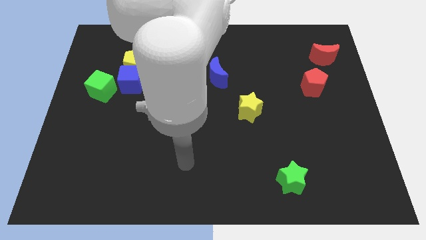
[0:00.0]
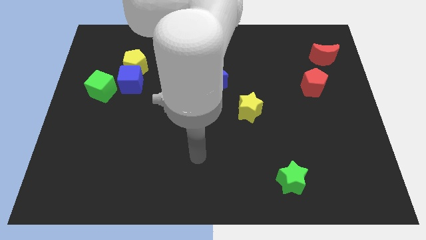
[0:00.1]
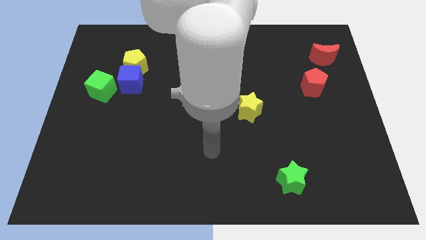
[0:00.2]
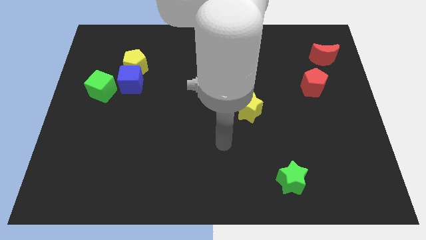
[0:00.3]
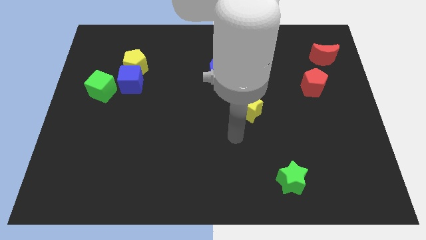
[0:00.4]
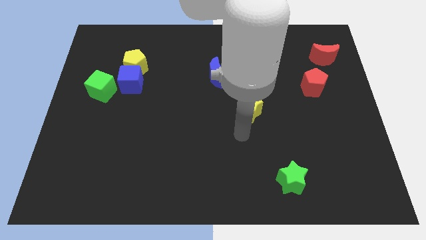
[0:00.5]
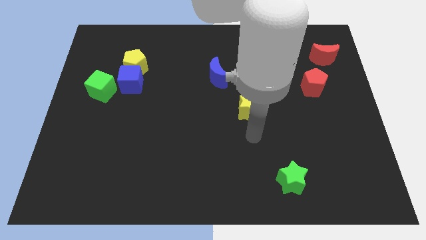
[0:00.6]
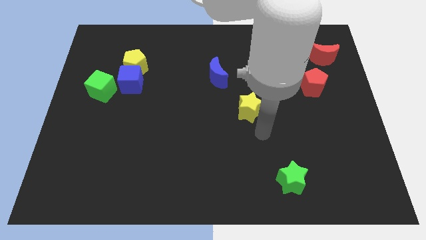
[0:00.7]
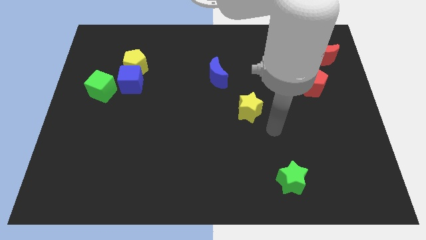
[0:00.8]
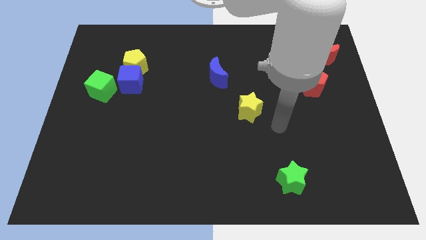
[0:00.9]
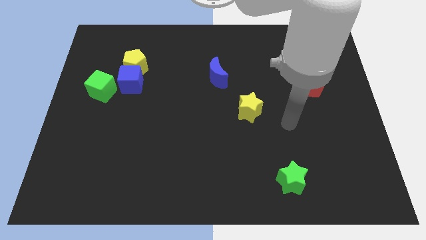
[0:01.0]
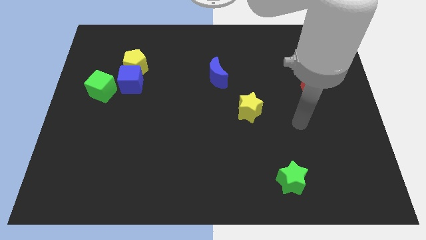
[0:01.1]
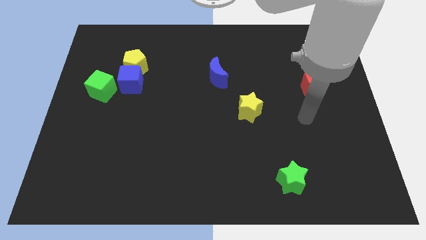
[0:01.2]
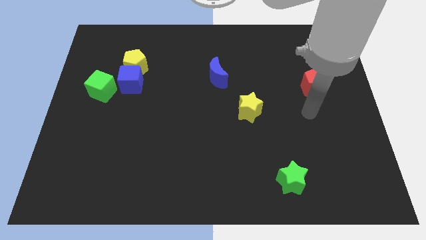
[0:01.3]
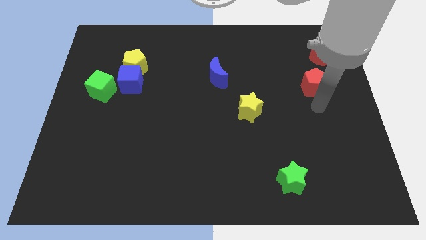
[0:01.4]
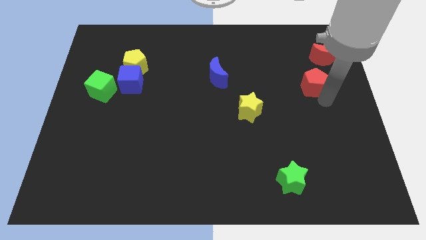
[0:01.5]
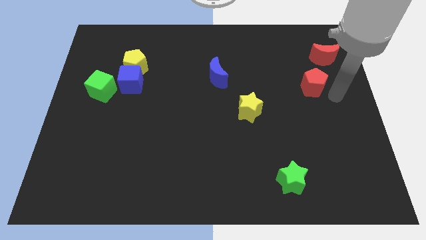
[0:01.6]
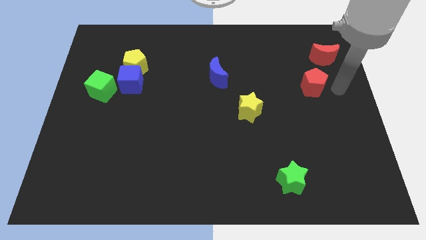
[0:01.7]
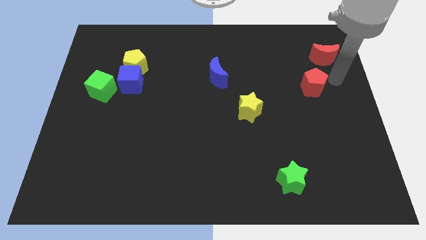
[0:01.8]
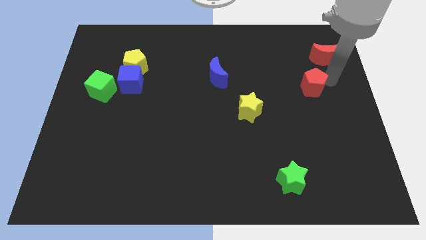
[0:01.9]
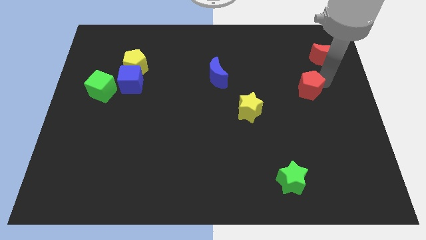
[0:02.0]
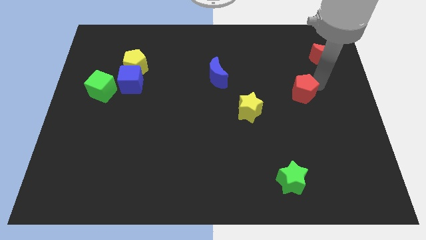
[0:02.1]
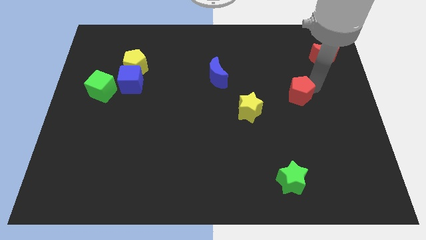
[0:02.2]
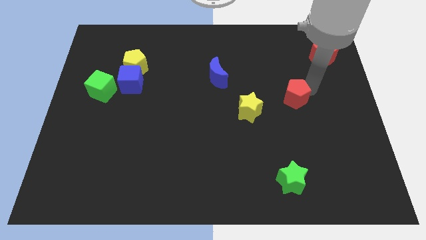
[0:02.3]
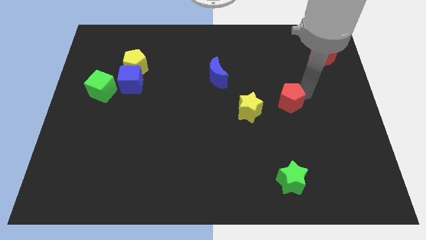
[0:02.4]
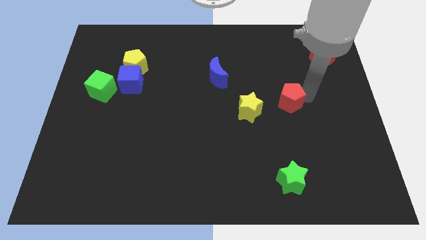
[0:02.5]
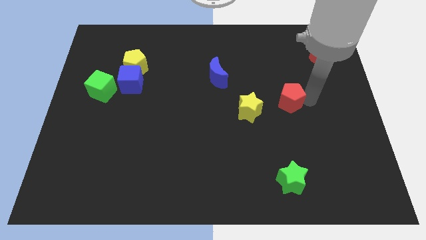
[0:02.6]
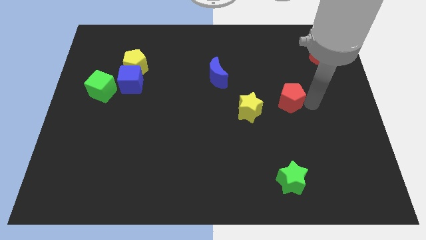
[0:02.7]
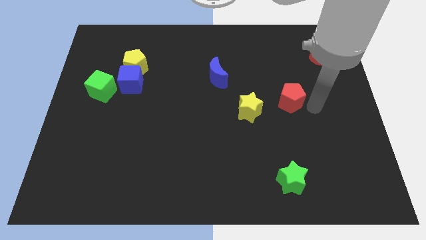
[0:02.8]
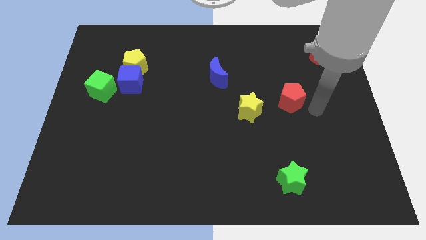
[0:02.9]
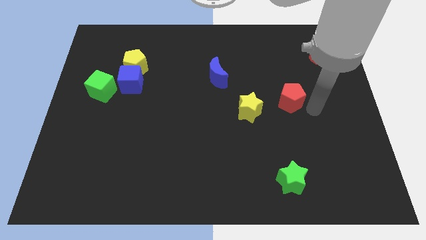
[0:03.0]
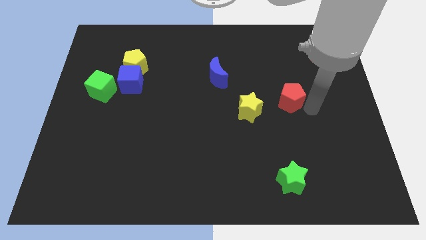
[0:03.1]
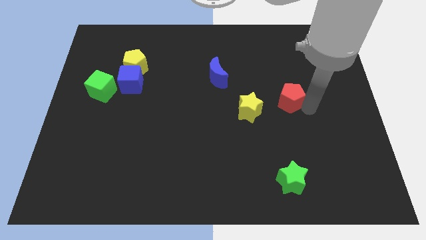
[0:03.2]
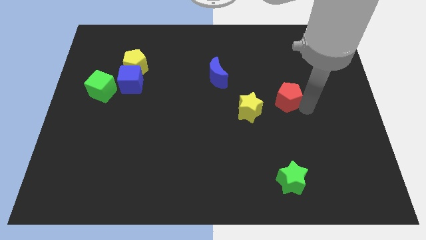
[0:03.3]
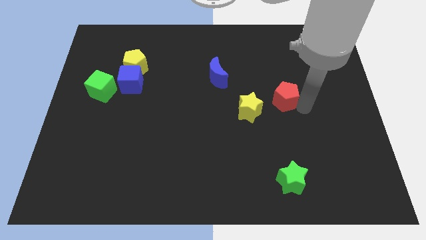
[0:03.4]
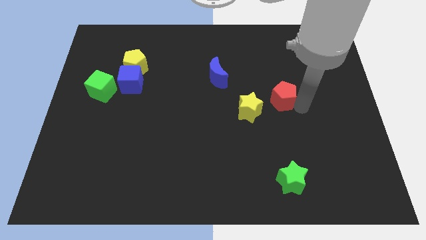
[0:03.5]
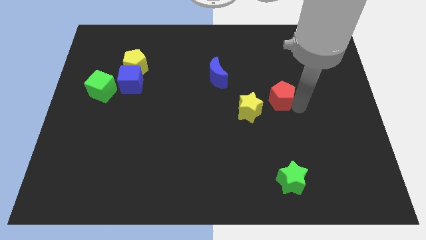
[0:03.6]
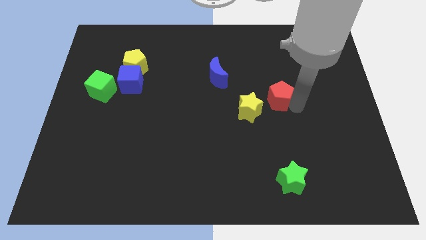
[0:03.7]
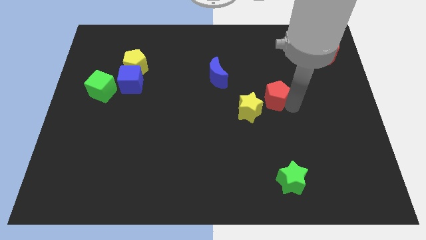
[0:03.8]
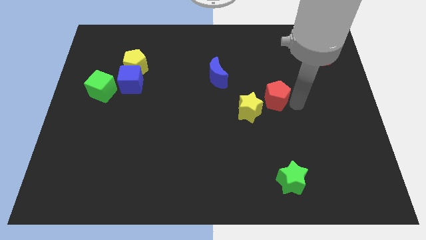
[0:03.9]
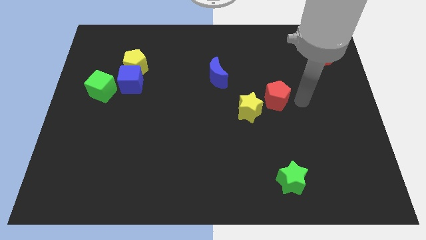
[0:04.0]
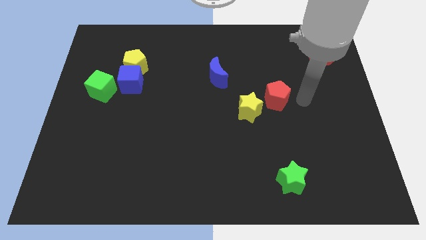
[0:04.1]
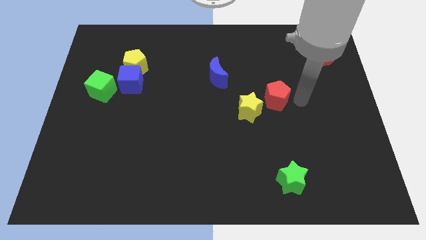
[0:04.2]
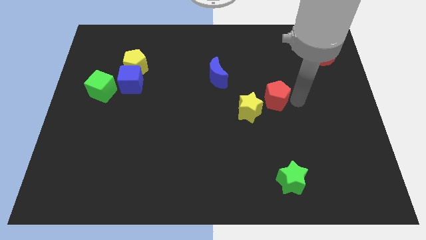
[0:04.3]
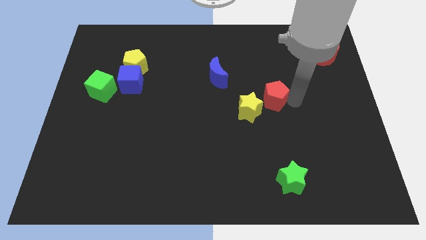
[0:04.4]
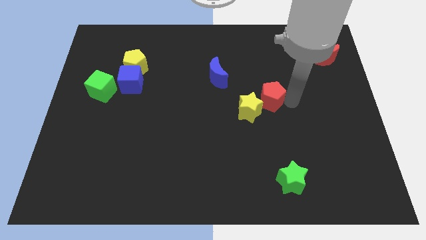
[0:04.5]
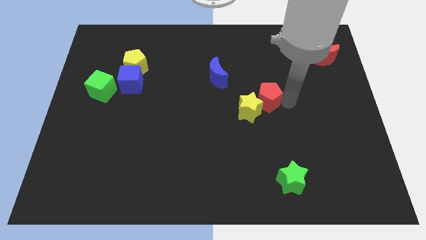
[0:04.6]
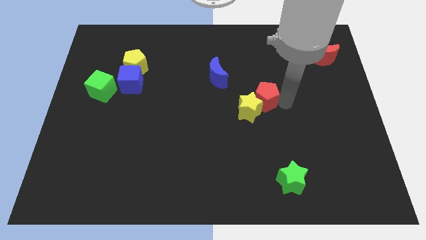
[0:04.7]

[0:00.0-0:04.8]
push the red pentagon to the center of the board

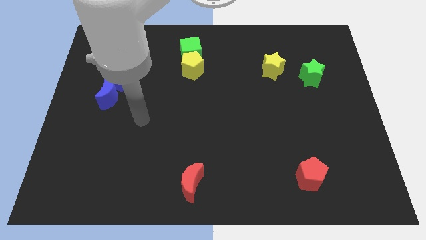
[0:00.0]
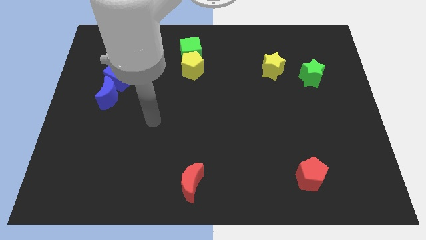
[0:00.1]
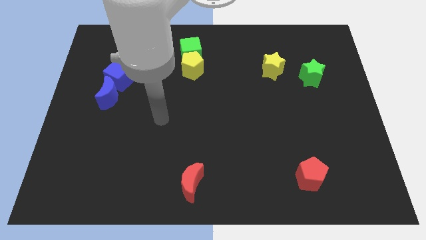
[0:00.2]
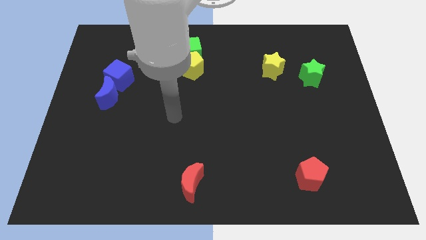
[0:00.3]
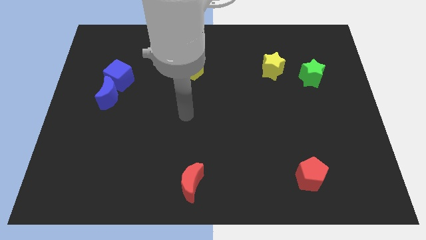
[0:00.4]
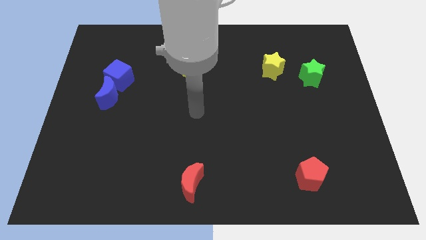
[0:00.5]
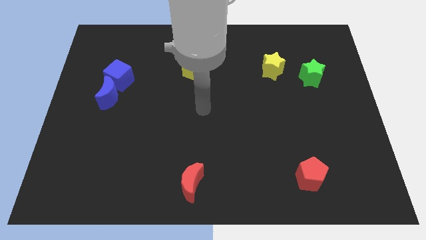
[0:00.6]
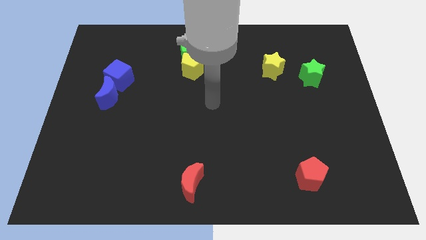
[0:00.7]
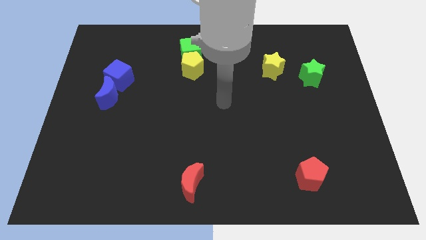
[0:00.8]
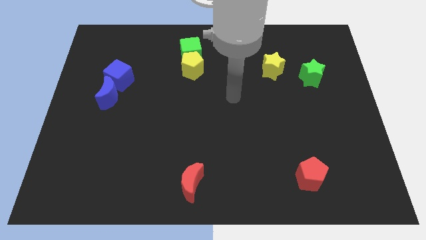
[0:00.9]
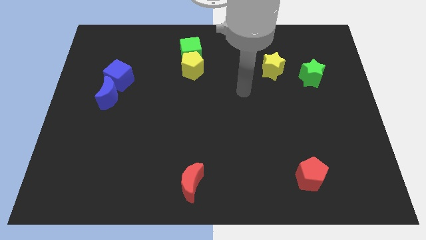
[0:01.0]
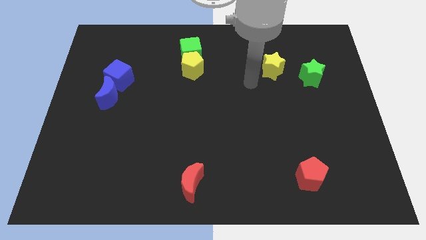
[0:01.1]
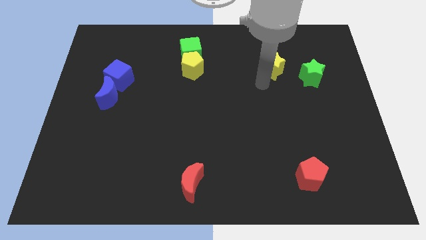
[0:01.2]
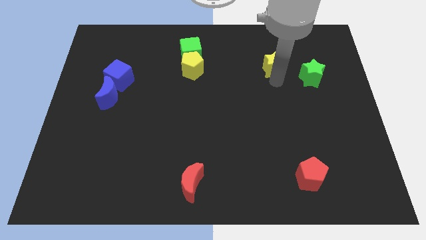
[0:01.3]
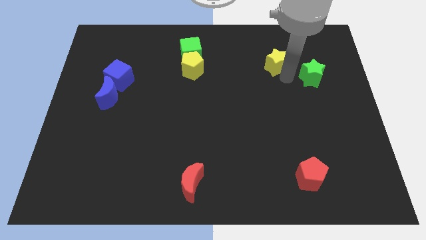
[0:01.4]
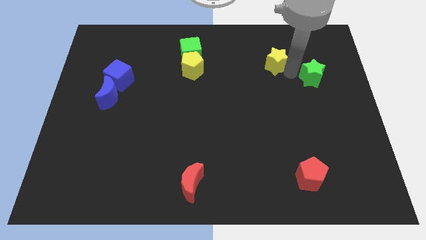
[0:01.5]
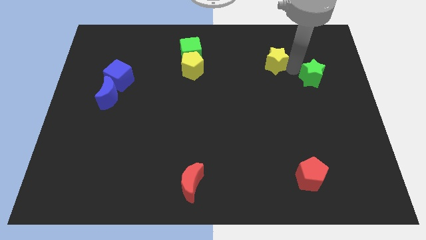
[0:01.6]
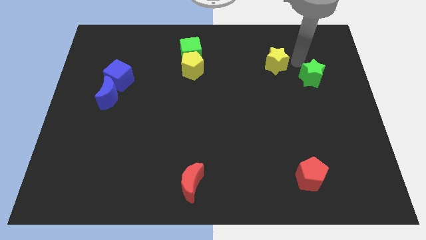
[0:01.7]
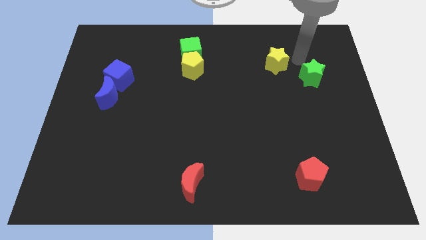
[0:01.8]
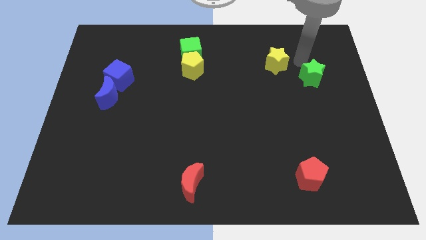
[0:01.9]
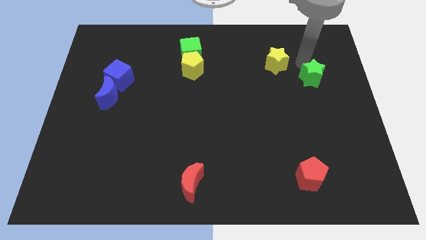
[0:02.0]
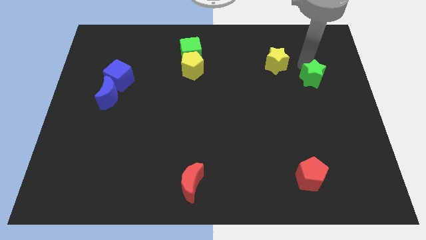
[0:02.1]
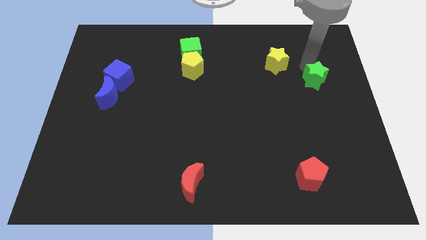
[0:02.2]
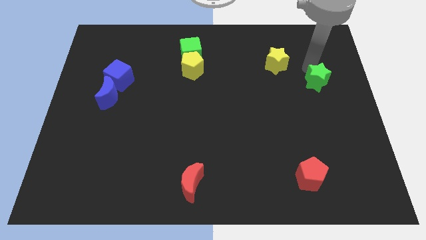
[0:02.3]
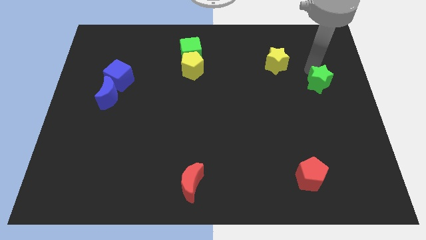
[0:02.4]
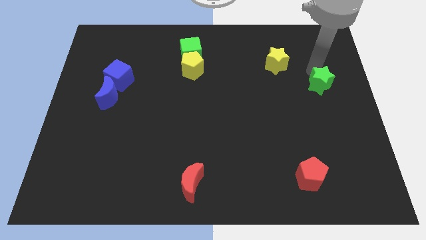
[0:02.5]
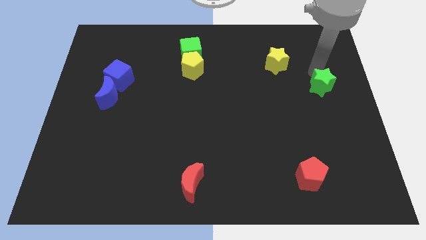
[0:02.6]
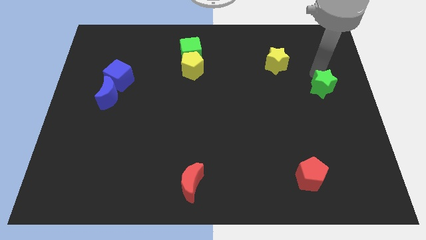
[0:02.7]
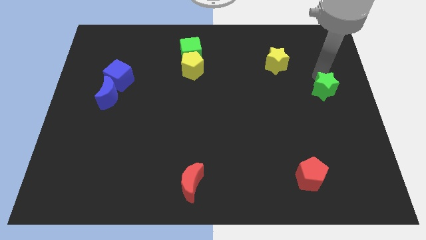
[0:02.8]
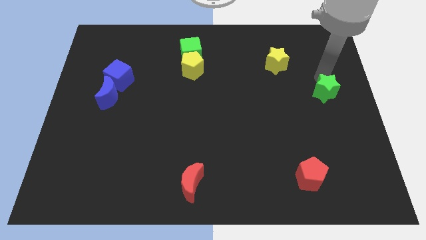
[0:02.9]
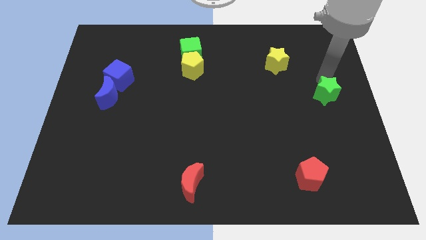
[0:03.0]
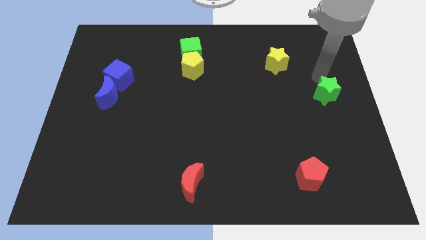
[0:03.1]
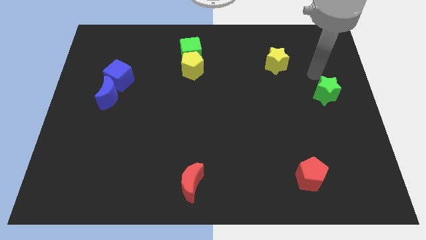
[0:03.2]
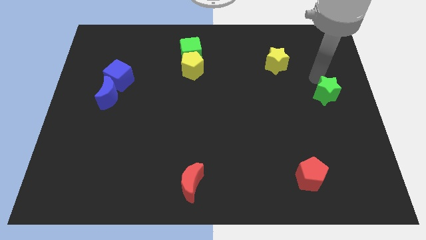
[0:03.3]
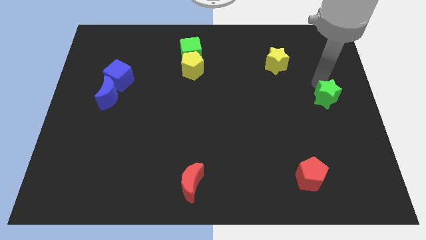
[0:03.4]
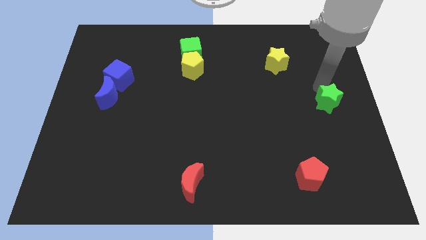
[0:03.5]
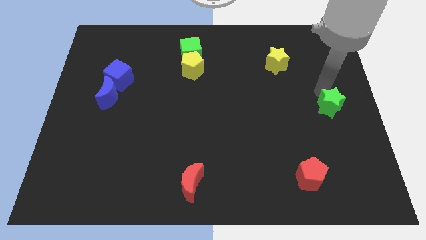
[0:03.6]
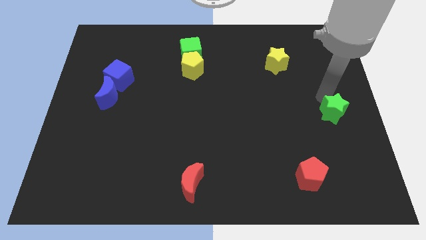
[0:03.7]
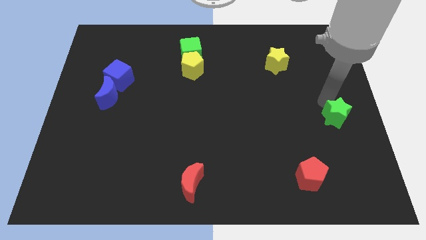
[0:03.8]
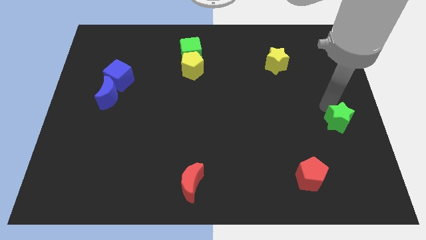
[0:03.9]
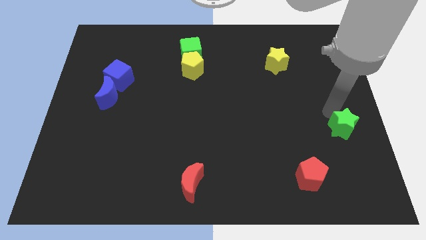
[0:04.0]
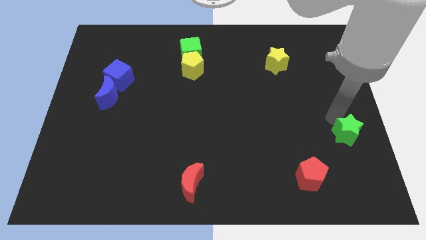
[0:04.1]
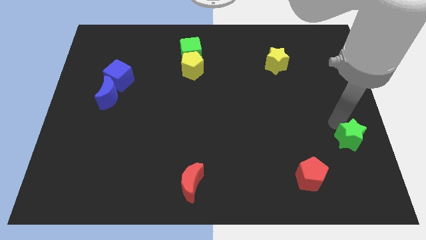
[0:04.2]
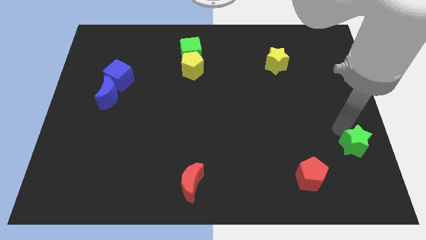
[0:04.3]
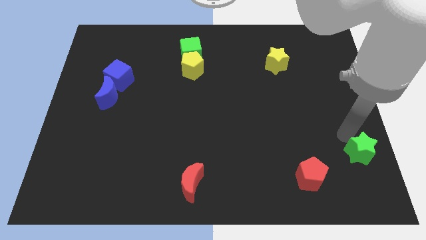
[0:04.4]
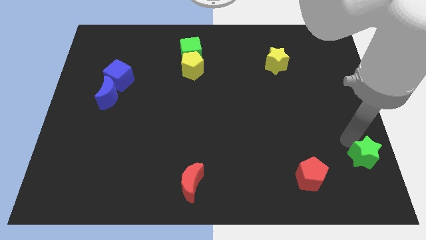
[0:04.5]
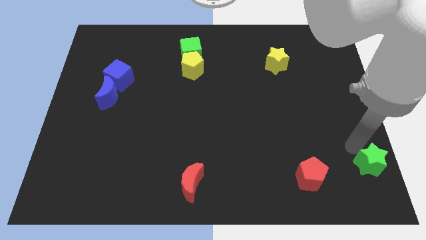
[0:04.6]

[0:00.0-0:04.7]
put the green star to the lower right corner
